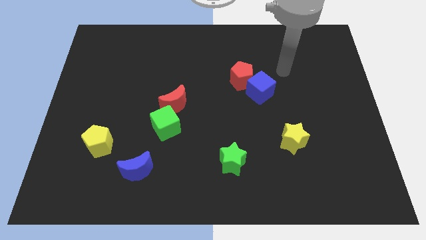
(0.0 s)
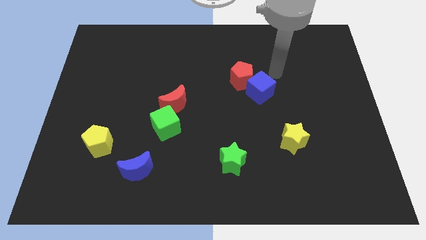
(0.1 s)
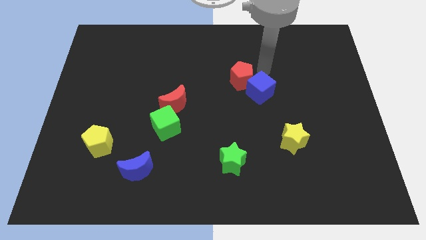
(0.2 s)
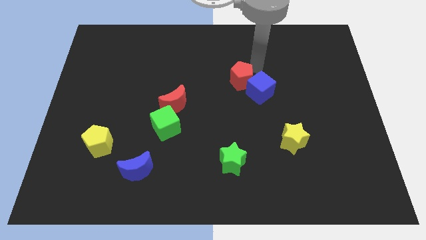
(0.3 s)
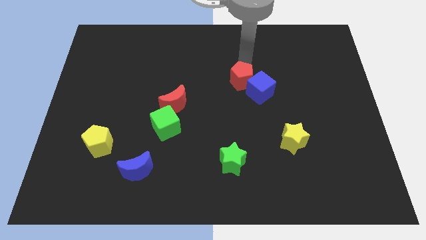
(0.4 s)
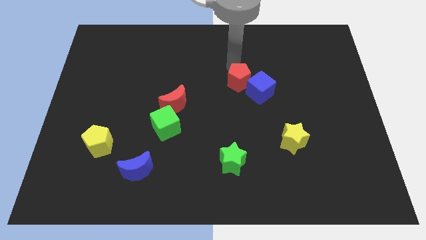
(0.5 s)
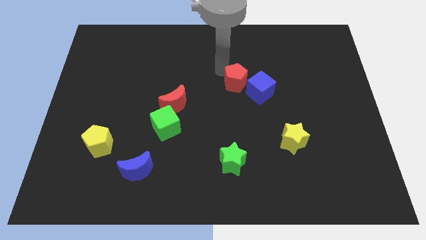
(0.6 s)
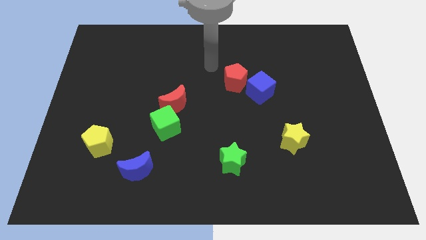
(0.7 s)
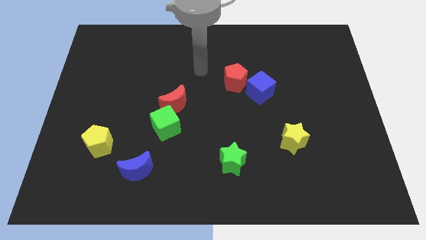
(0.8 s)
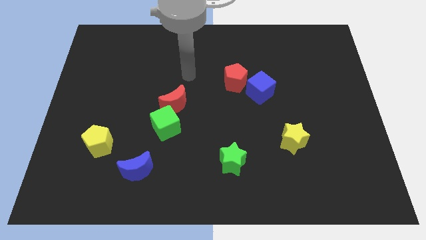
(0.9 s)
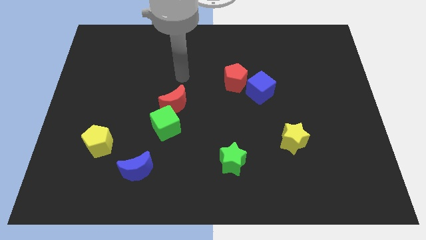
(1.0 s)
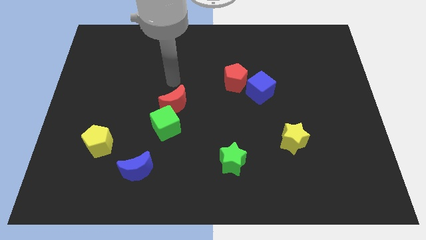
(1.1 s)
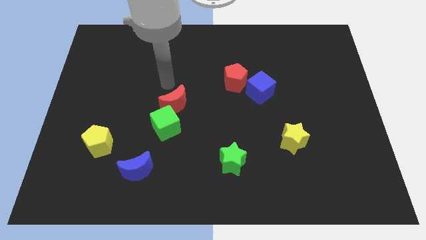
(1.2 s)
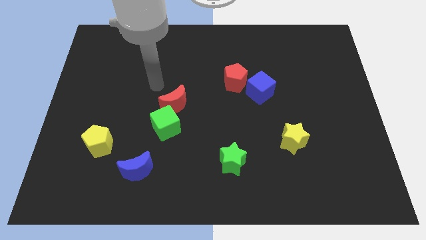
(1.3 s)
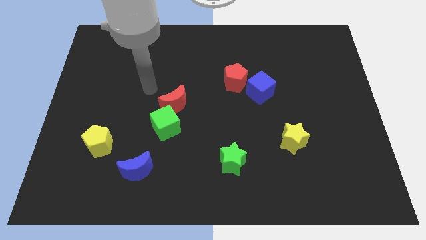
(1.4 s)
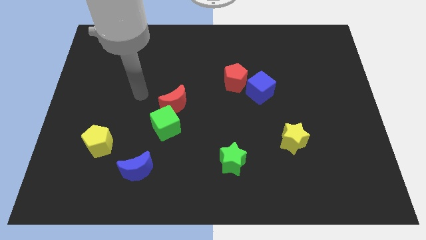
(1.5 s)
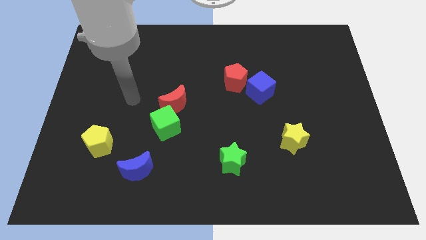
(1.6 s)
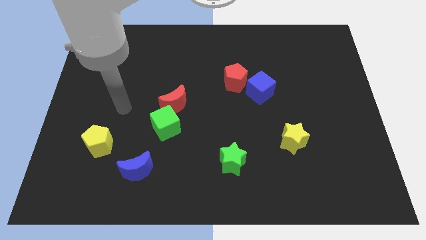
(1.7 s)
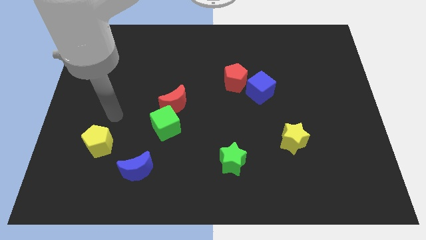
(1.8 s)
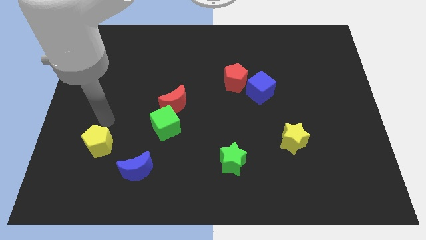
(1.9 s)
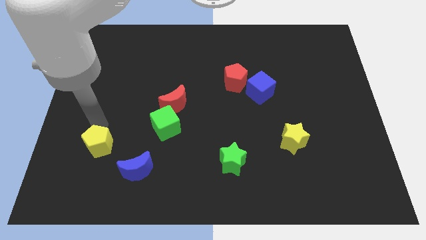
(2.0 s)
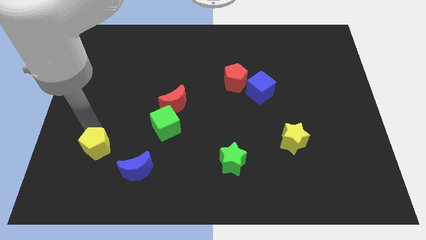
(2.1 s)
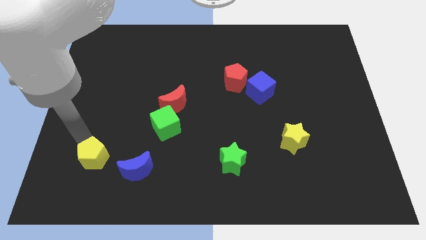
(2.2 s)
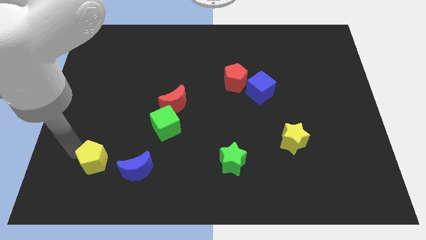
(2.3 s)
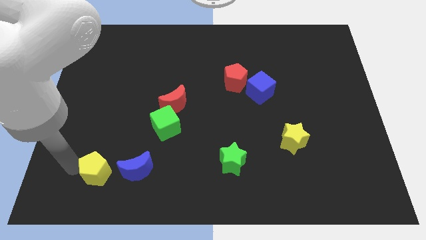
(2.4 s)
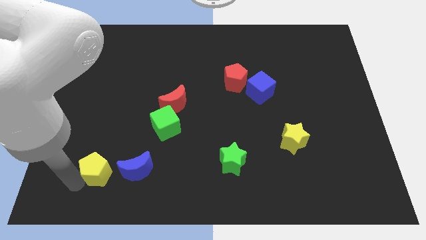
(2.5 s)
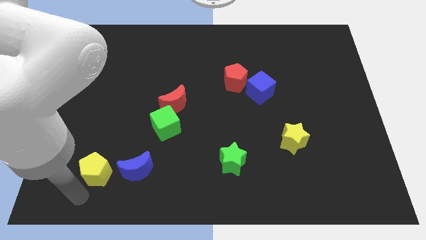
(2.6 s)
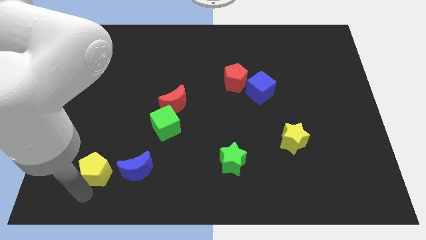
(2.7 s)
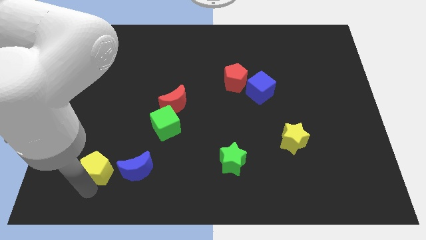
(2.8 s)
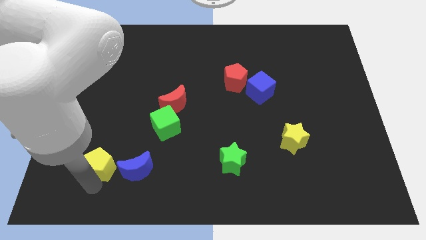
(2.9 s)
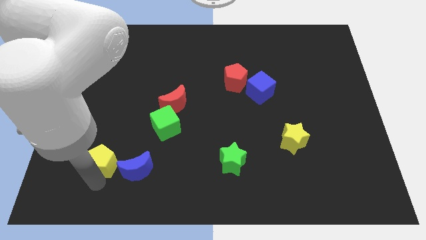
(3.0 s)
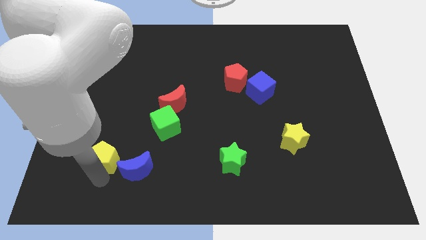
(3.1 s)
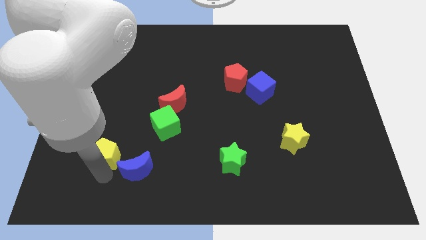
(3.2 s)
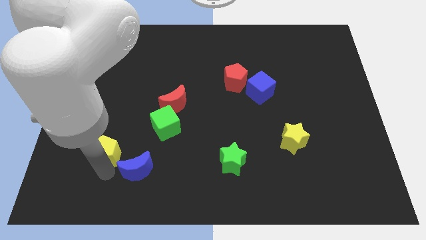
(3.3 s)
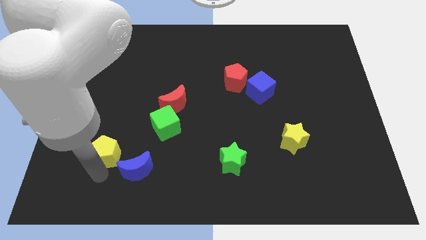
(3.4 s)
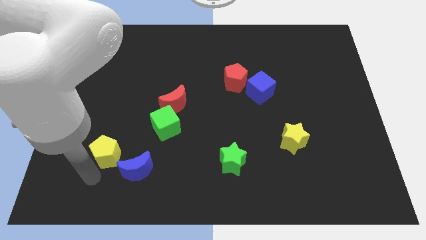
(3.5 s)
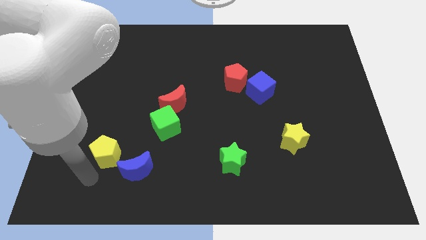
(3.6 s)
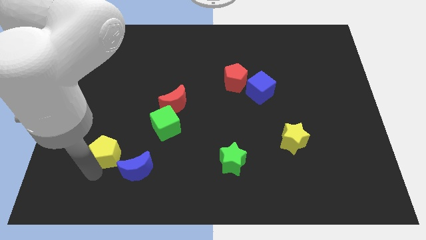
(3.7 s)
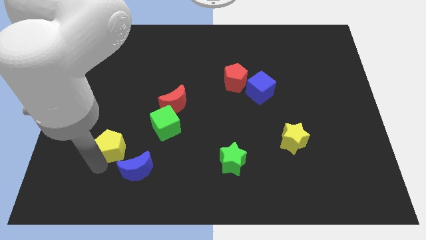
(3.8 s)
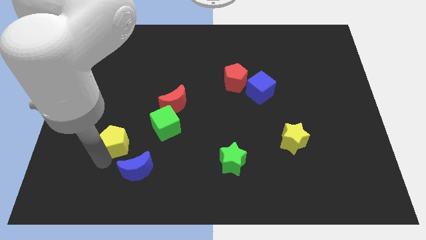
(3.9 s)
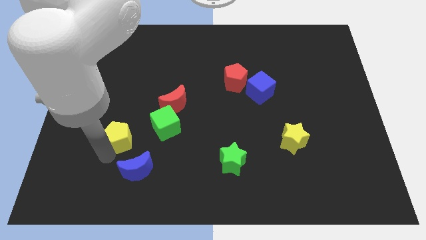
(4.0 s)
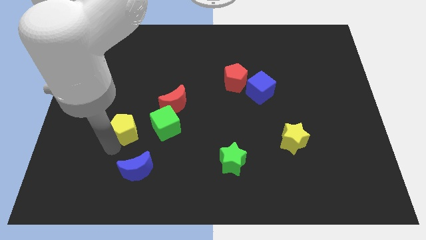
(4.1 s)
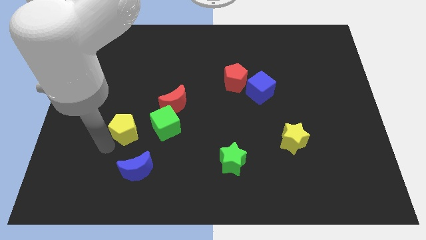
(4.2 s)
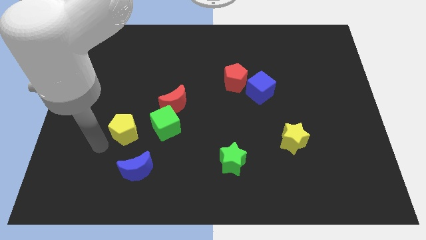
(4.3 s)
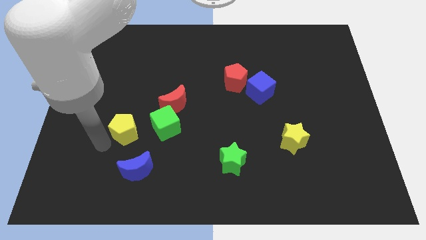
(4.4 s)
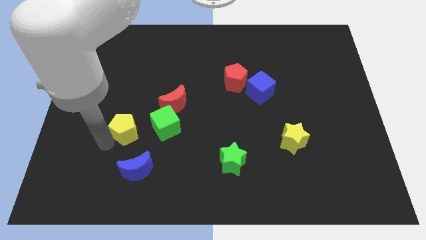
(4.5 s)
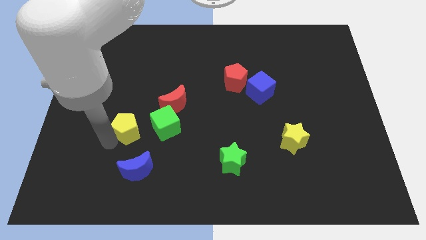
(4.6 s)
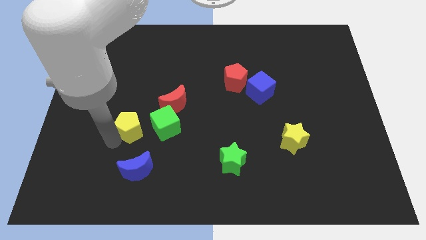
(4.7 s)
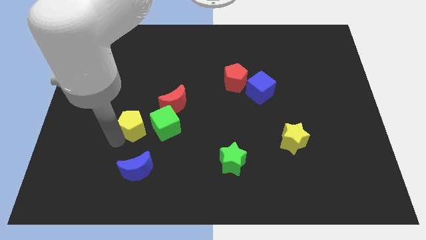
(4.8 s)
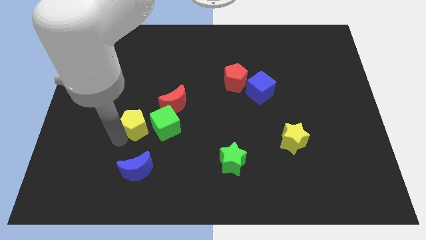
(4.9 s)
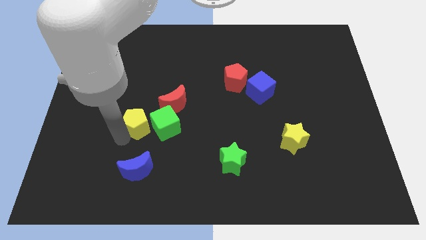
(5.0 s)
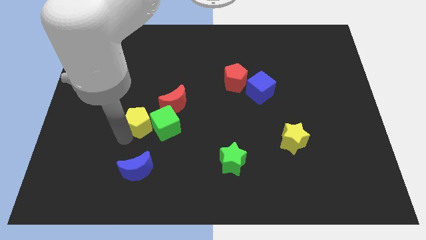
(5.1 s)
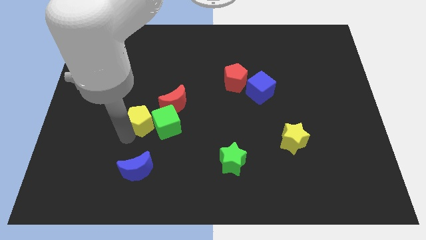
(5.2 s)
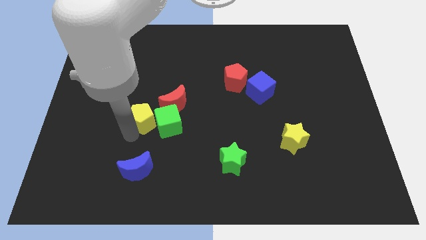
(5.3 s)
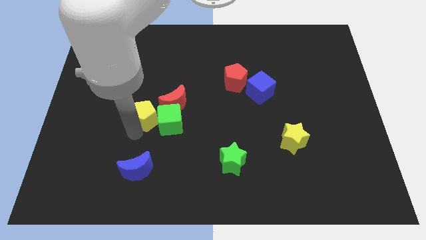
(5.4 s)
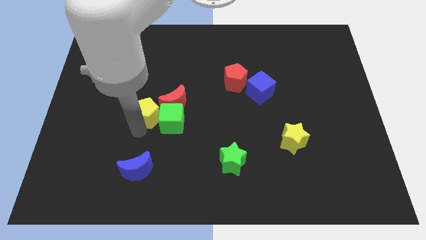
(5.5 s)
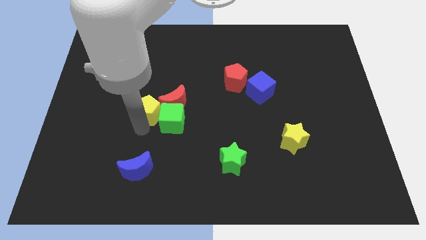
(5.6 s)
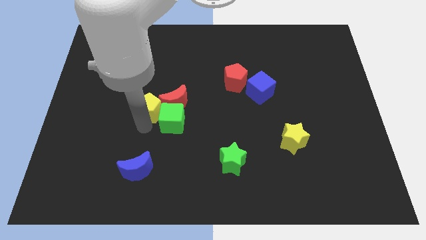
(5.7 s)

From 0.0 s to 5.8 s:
slide the yellow pentagon to the red moon

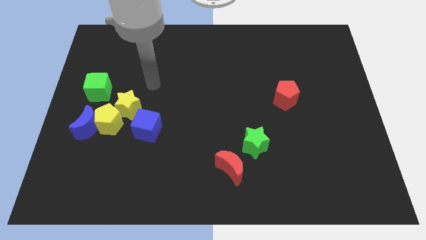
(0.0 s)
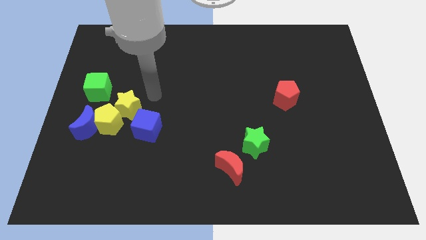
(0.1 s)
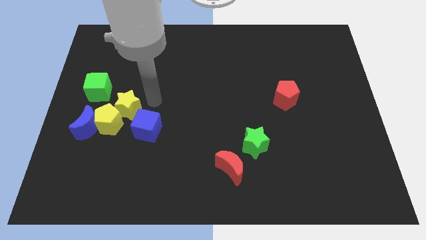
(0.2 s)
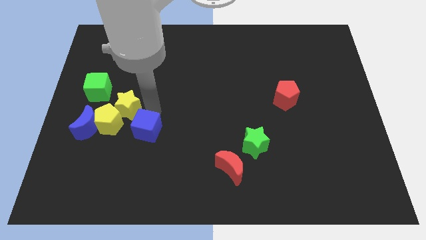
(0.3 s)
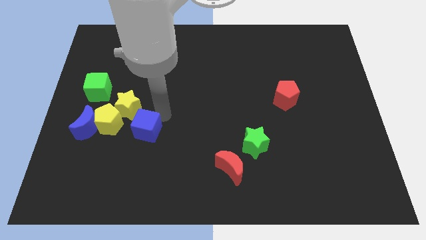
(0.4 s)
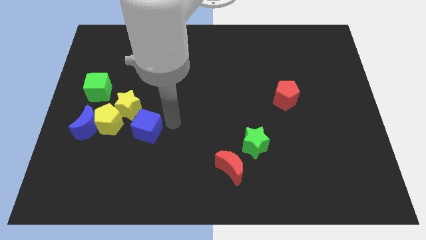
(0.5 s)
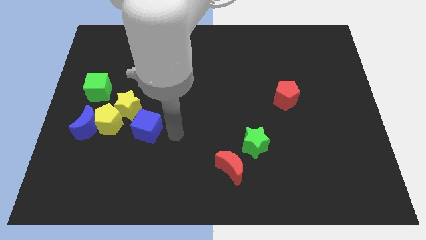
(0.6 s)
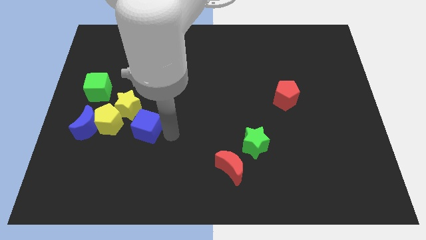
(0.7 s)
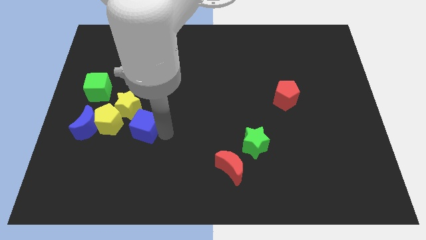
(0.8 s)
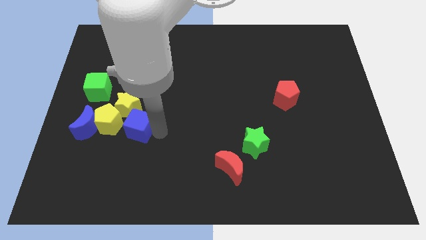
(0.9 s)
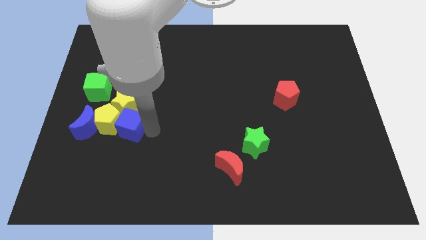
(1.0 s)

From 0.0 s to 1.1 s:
push the blue cube to the yellow pentagon

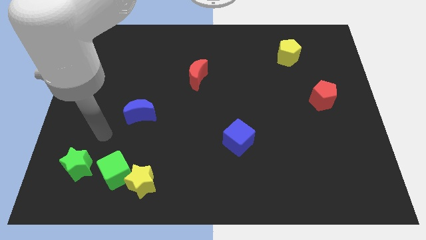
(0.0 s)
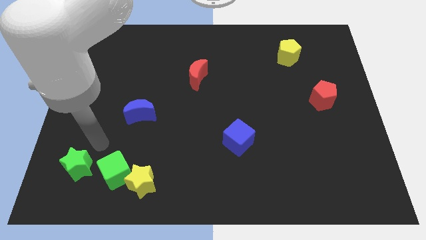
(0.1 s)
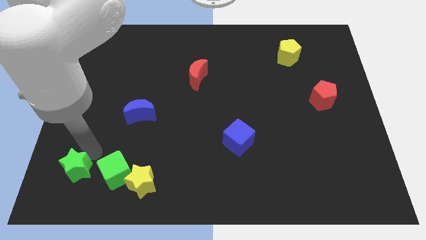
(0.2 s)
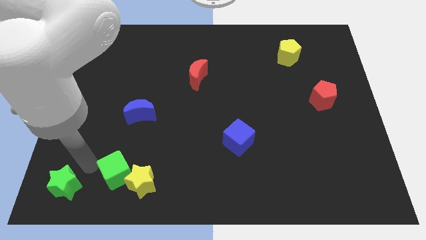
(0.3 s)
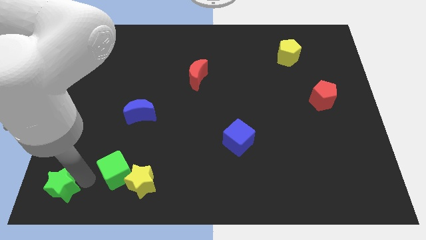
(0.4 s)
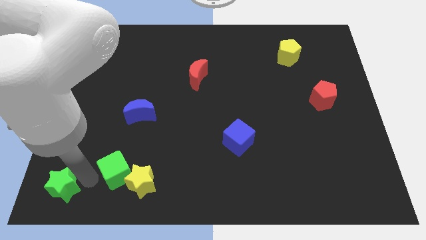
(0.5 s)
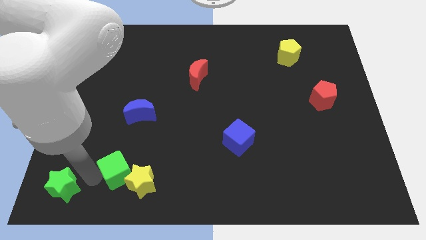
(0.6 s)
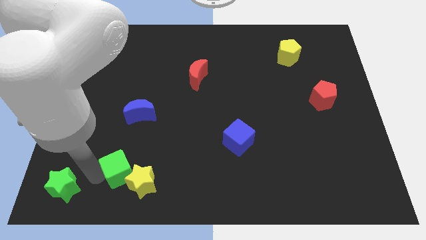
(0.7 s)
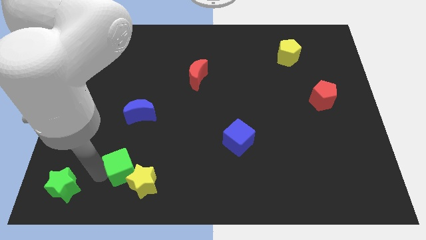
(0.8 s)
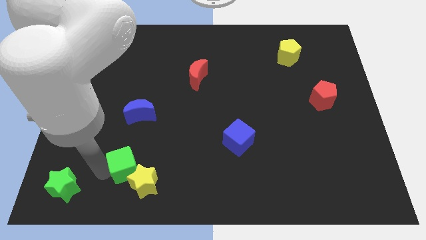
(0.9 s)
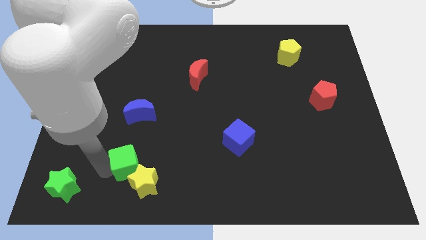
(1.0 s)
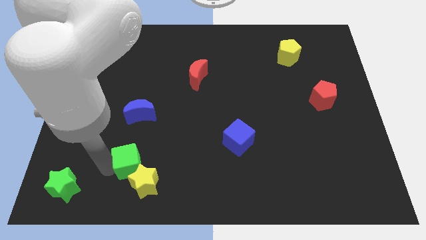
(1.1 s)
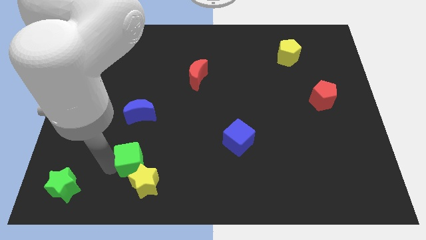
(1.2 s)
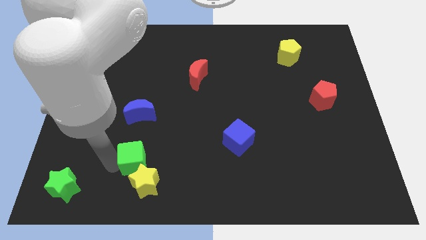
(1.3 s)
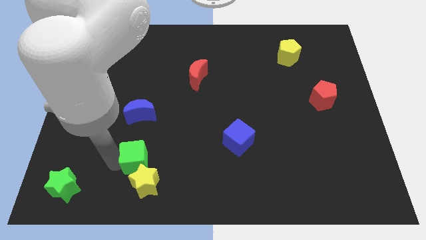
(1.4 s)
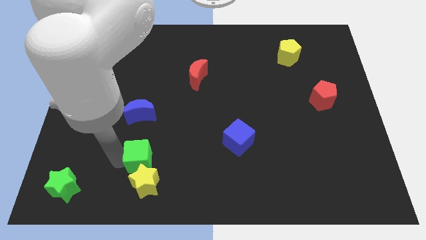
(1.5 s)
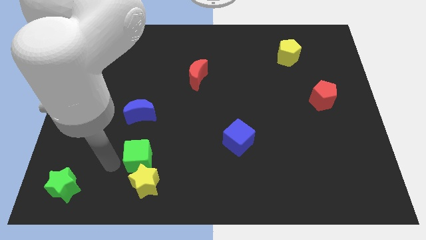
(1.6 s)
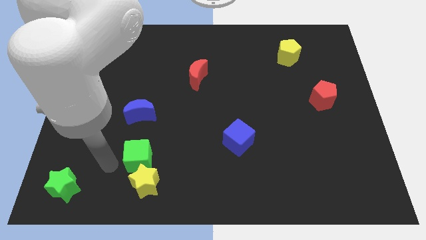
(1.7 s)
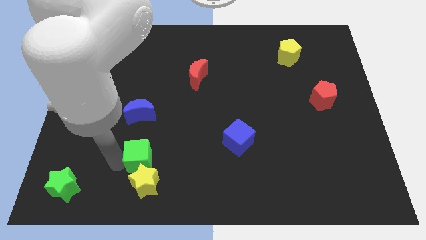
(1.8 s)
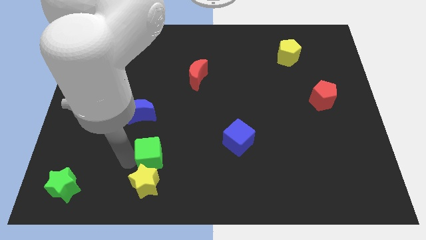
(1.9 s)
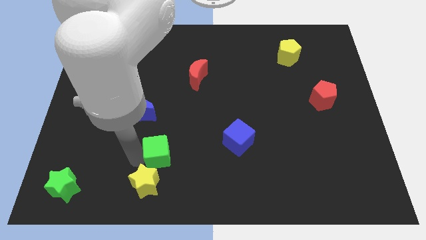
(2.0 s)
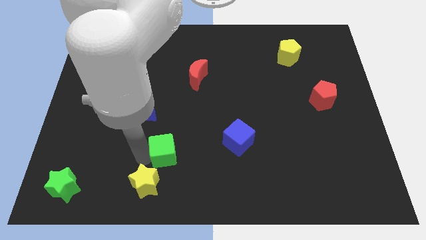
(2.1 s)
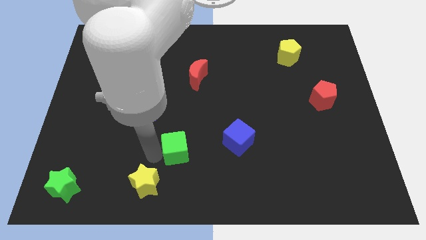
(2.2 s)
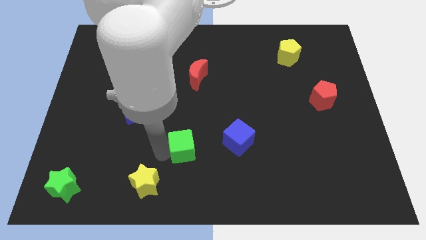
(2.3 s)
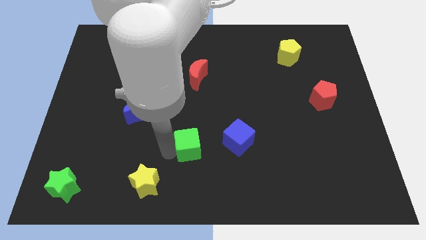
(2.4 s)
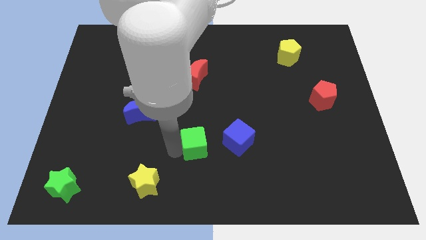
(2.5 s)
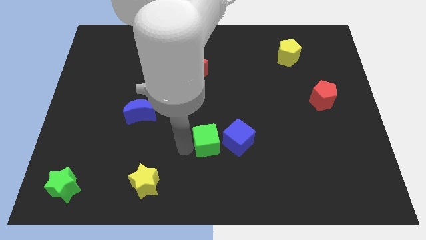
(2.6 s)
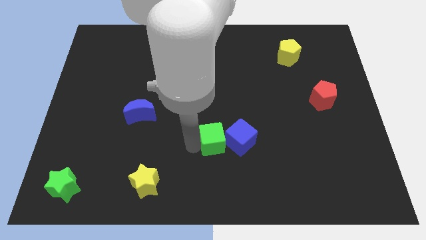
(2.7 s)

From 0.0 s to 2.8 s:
slide the green cube close to the blue cube
